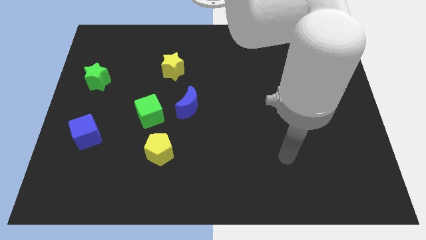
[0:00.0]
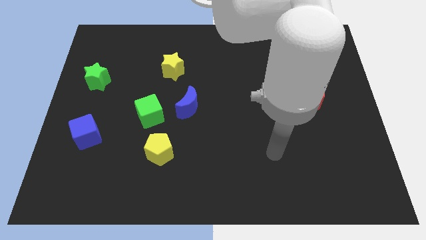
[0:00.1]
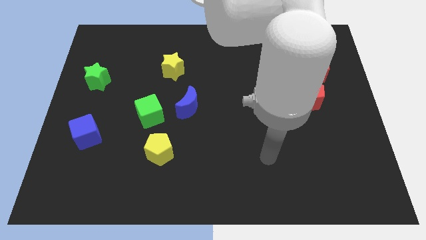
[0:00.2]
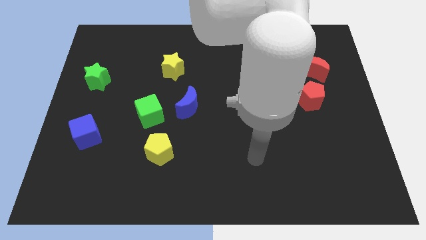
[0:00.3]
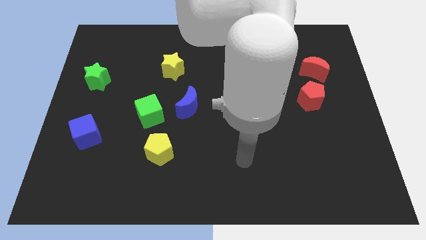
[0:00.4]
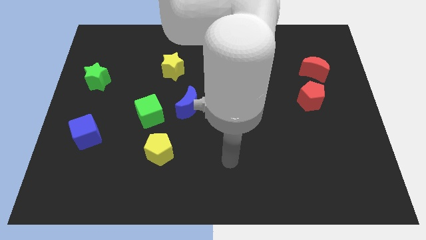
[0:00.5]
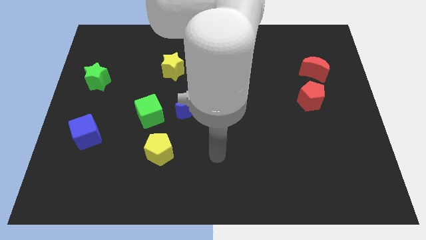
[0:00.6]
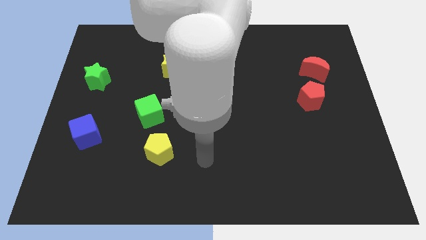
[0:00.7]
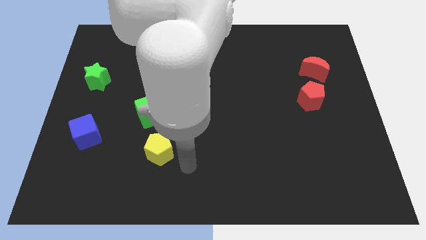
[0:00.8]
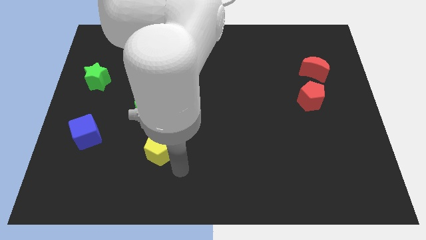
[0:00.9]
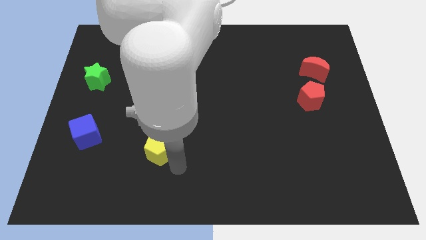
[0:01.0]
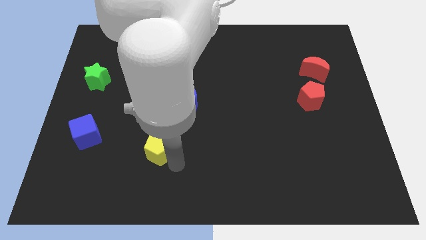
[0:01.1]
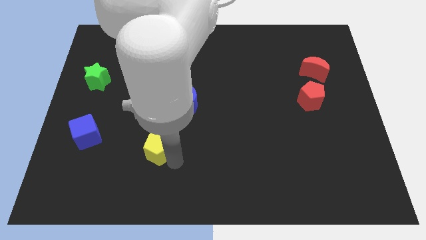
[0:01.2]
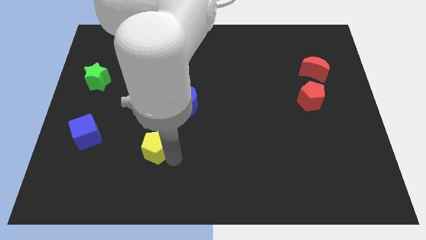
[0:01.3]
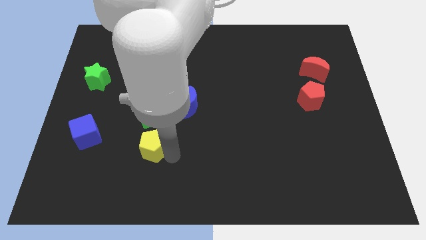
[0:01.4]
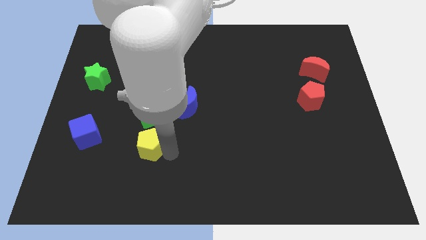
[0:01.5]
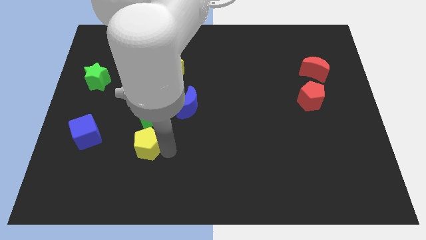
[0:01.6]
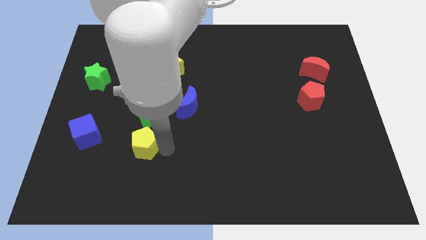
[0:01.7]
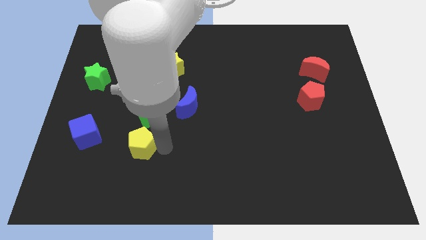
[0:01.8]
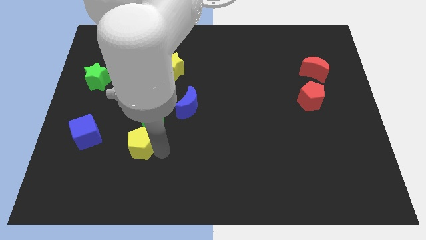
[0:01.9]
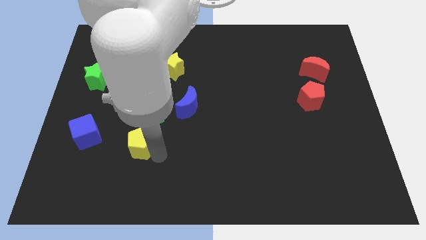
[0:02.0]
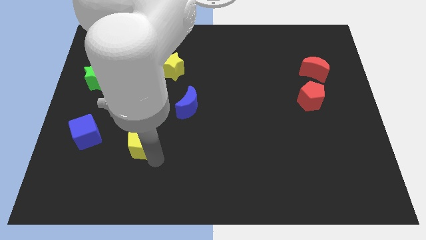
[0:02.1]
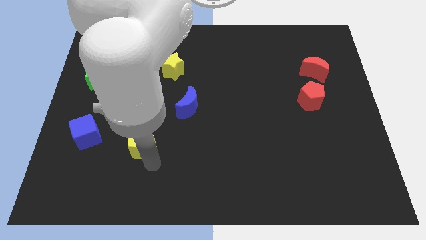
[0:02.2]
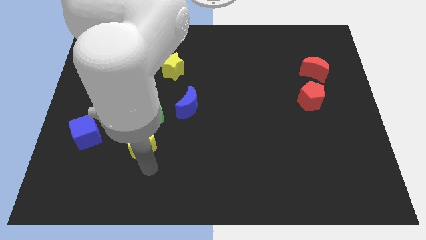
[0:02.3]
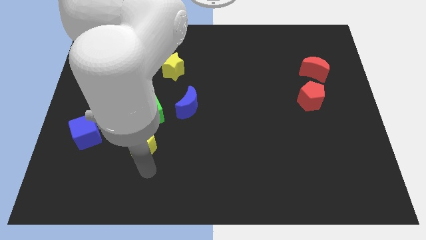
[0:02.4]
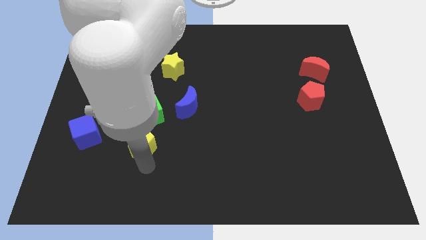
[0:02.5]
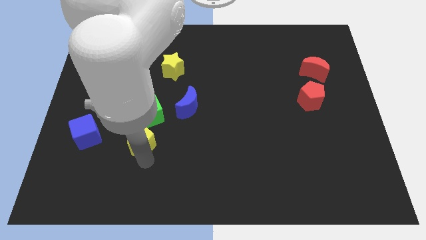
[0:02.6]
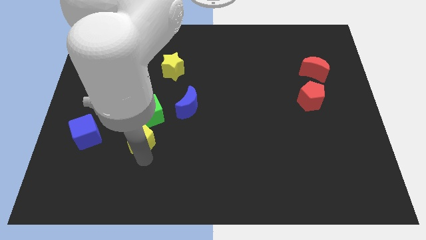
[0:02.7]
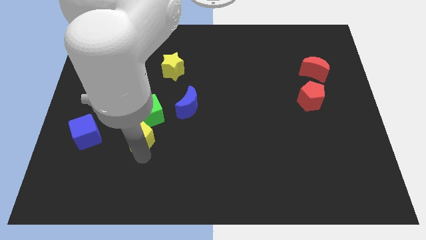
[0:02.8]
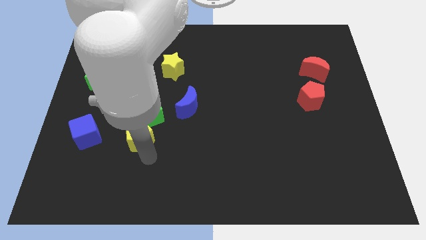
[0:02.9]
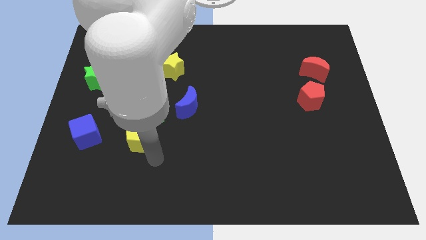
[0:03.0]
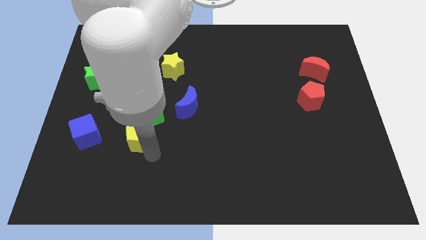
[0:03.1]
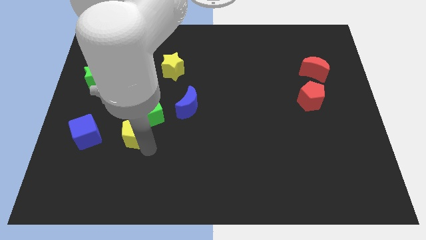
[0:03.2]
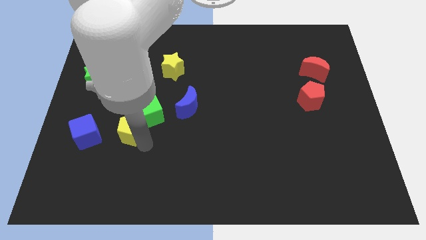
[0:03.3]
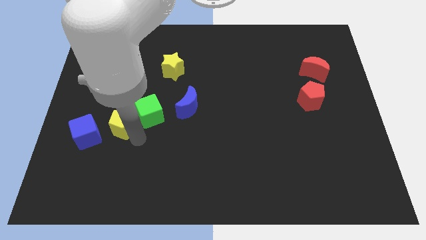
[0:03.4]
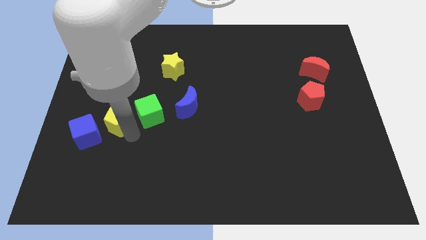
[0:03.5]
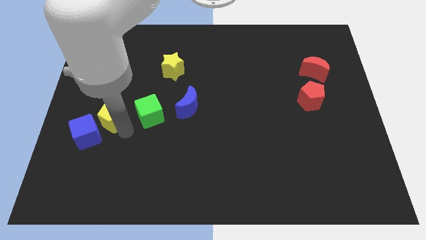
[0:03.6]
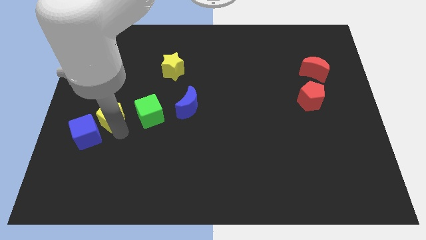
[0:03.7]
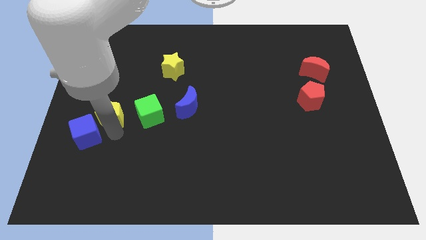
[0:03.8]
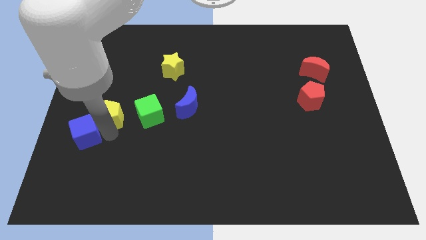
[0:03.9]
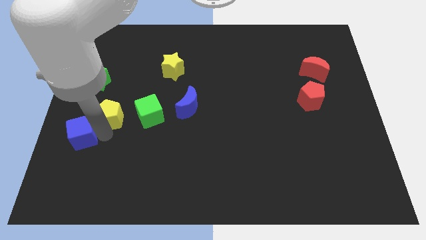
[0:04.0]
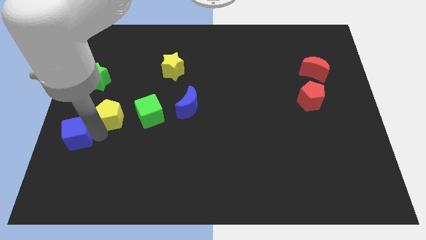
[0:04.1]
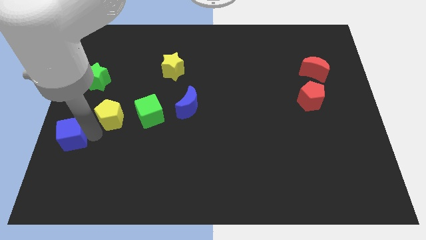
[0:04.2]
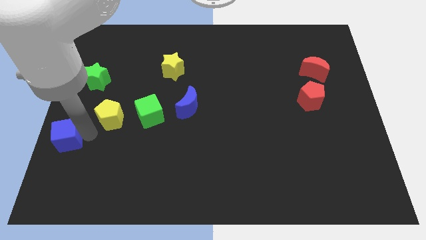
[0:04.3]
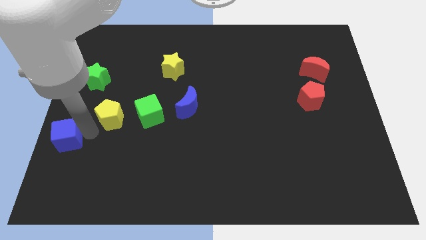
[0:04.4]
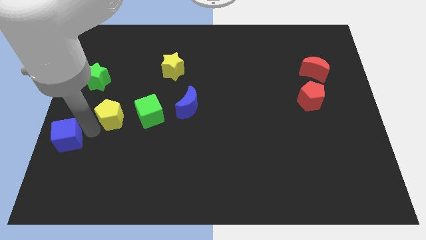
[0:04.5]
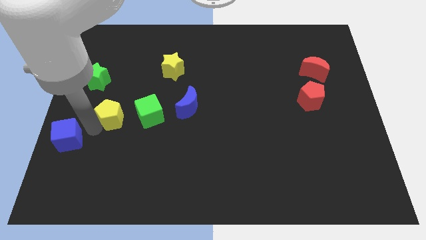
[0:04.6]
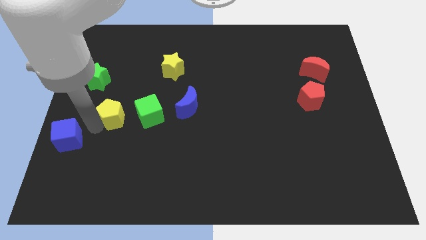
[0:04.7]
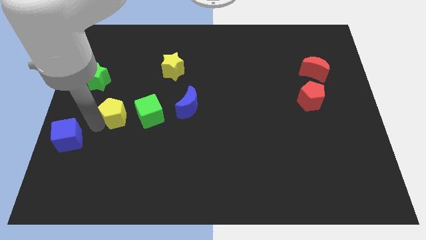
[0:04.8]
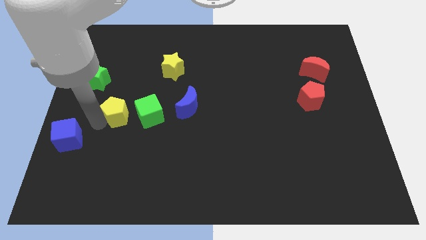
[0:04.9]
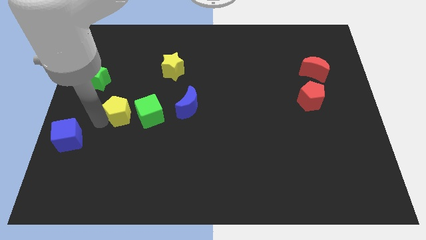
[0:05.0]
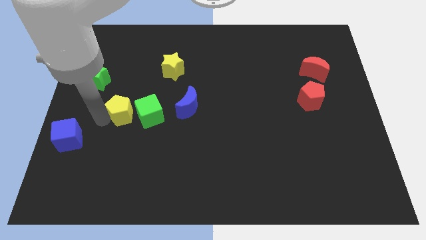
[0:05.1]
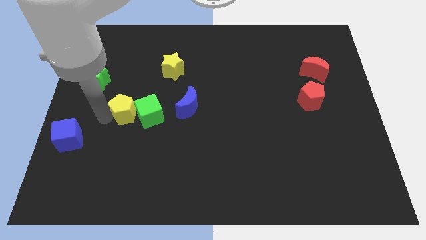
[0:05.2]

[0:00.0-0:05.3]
push the yellow pentagon a little bit up

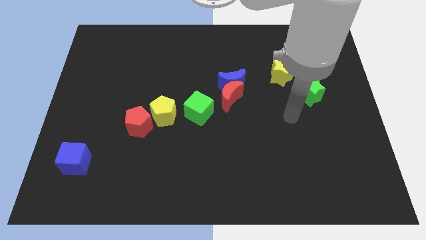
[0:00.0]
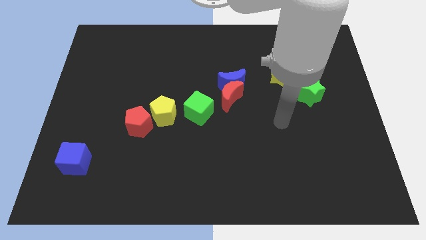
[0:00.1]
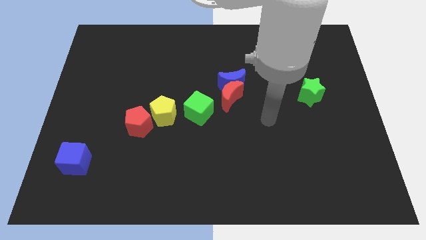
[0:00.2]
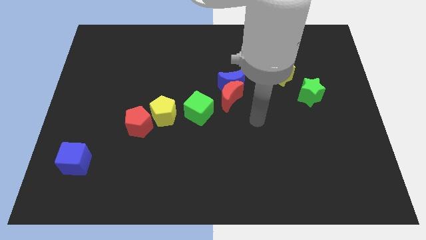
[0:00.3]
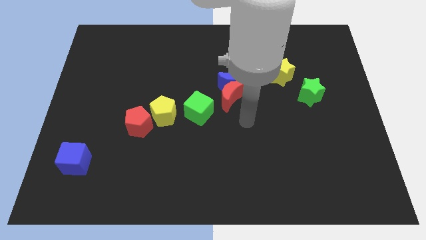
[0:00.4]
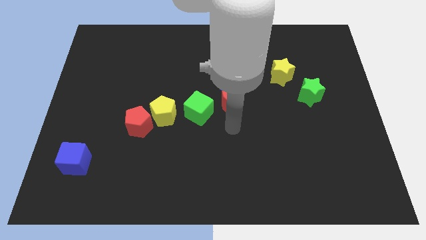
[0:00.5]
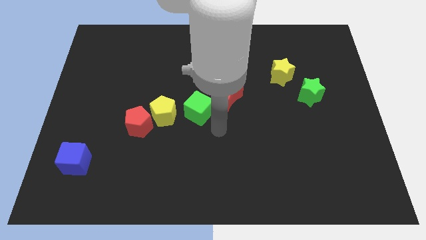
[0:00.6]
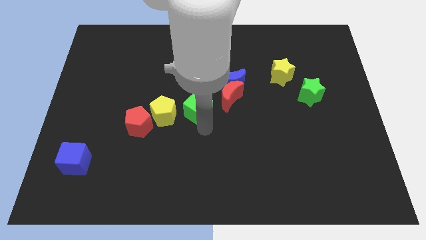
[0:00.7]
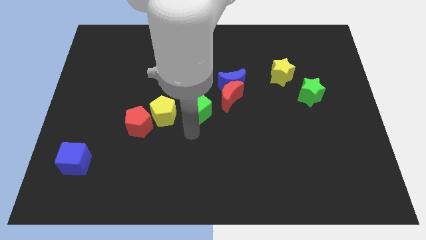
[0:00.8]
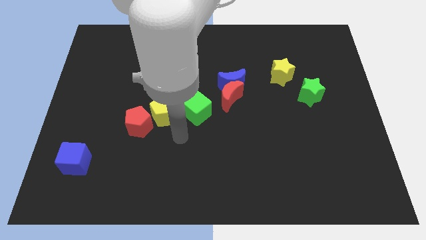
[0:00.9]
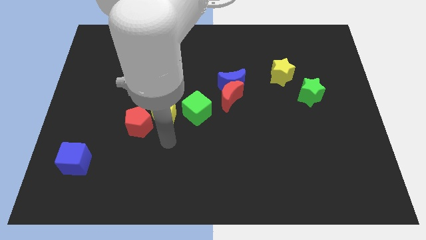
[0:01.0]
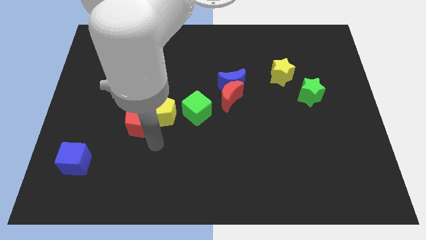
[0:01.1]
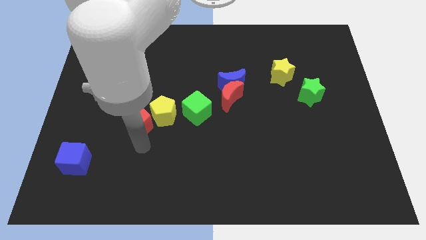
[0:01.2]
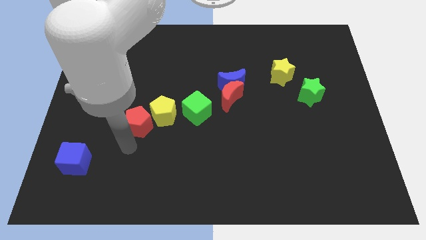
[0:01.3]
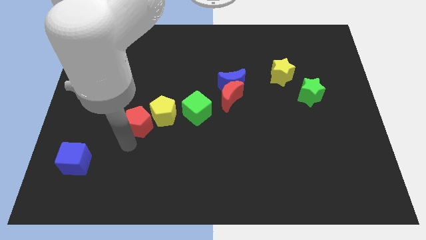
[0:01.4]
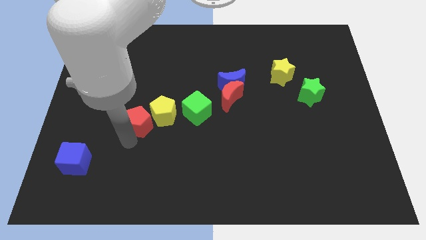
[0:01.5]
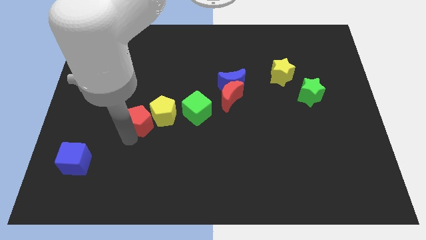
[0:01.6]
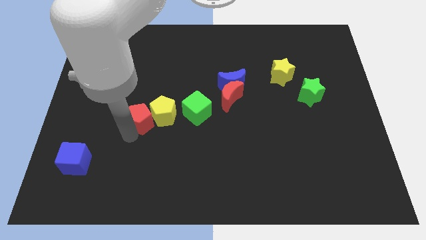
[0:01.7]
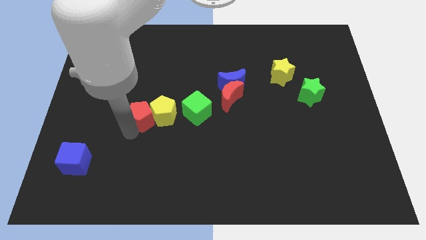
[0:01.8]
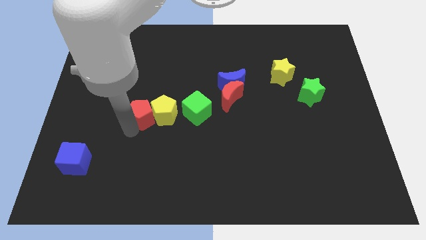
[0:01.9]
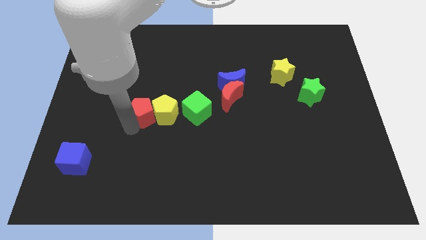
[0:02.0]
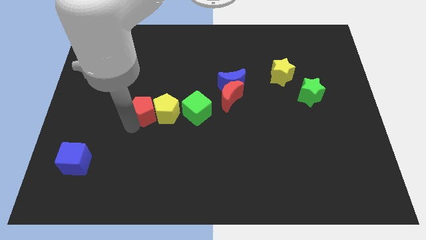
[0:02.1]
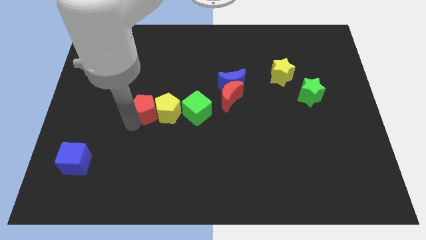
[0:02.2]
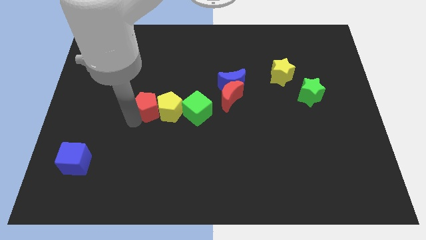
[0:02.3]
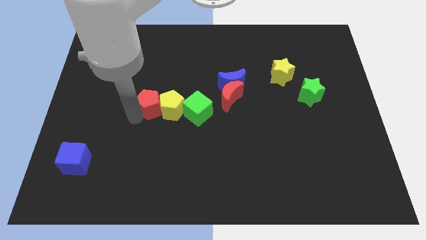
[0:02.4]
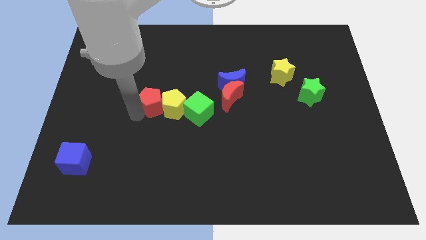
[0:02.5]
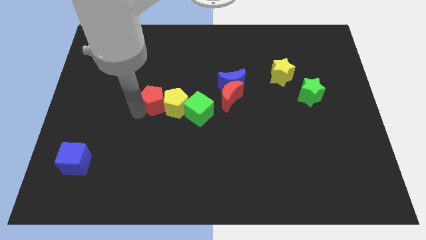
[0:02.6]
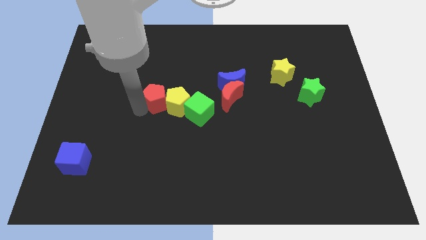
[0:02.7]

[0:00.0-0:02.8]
slightly slide the red pentagon up and right diagonally

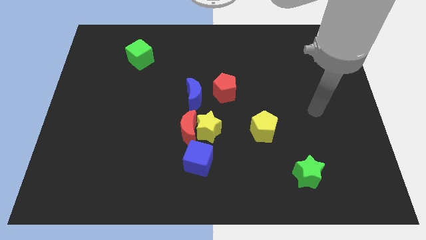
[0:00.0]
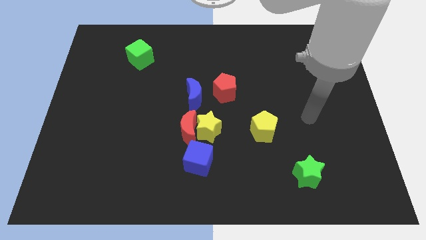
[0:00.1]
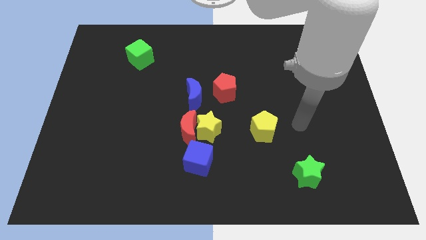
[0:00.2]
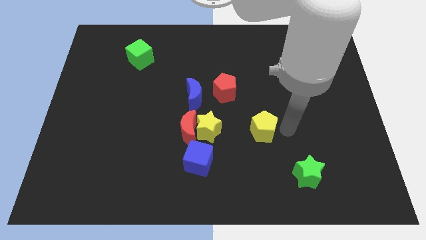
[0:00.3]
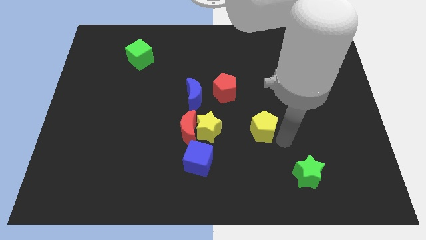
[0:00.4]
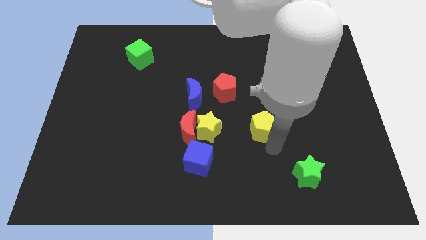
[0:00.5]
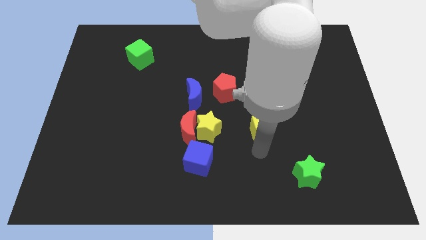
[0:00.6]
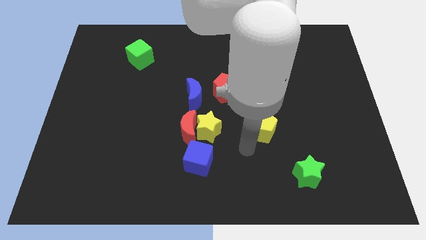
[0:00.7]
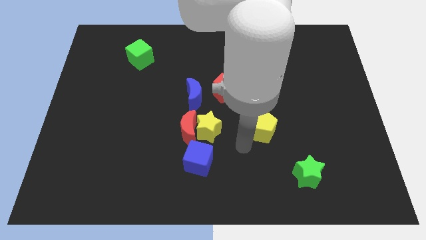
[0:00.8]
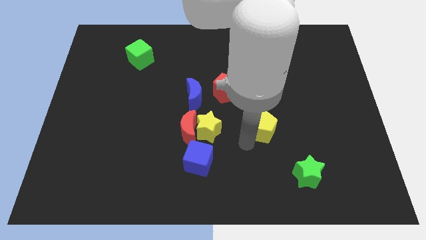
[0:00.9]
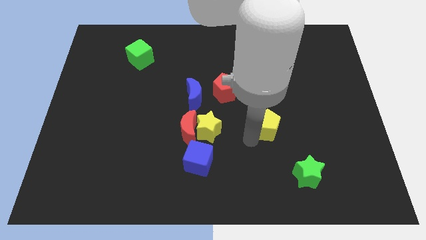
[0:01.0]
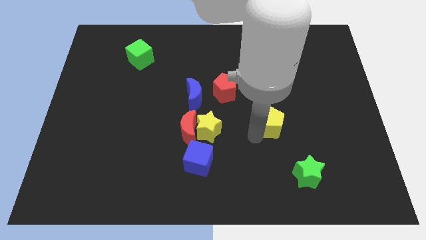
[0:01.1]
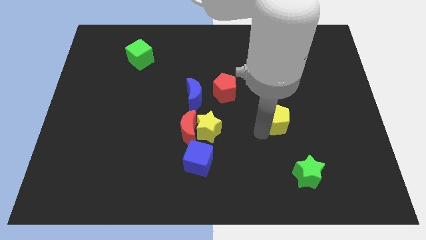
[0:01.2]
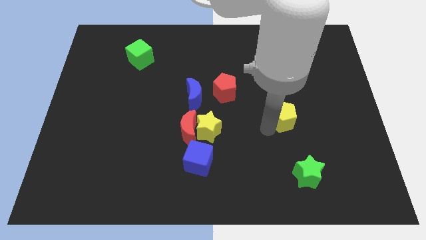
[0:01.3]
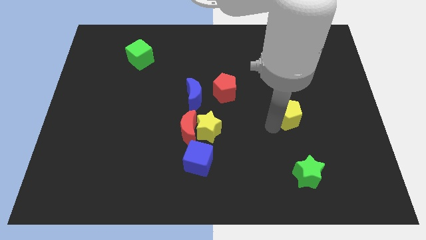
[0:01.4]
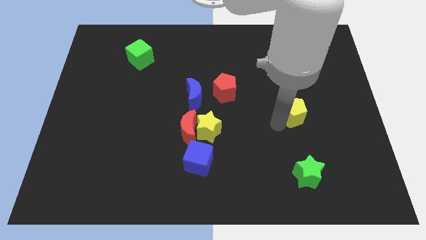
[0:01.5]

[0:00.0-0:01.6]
slide the yellow pentagon a little upwards and to the right diagonally
